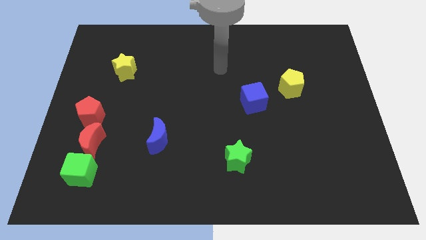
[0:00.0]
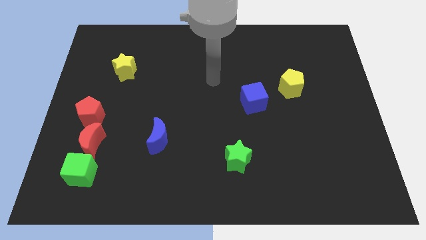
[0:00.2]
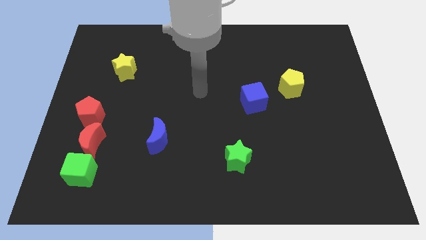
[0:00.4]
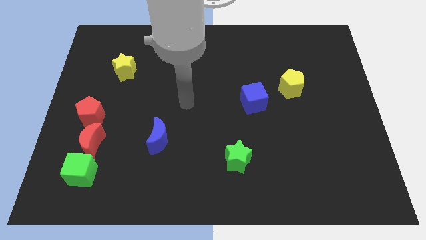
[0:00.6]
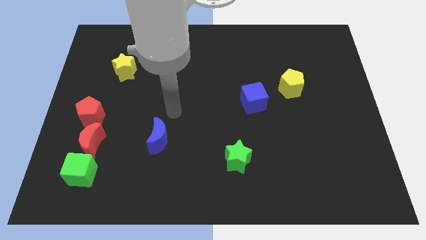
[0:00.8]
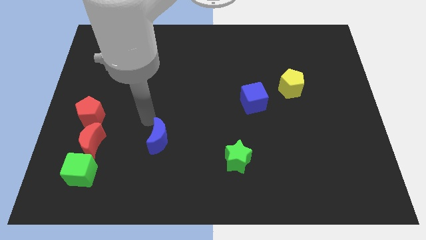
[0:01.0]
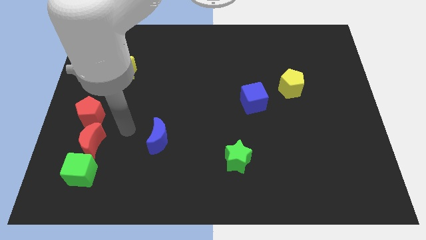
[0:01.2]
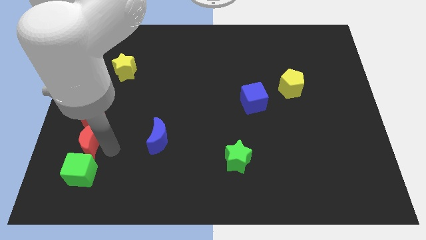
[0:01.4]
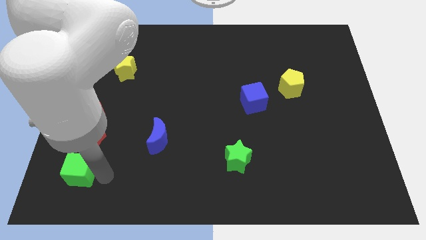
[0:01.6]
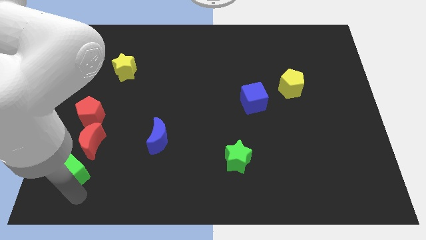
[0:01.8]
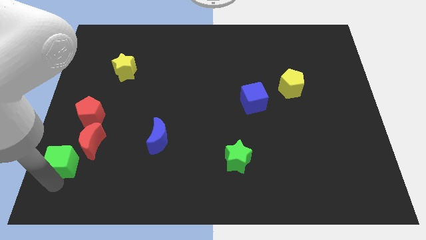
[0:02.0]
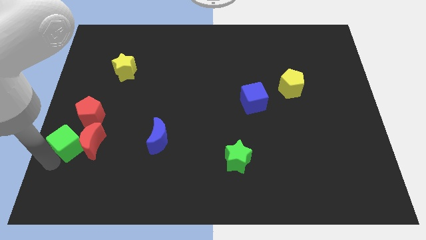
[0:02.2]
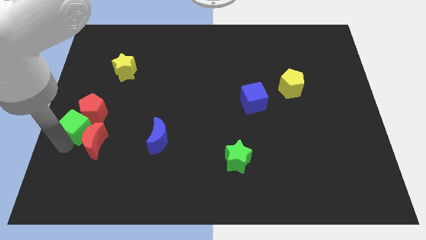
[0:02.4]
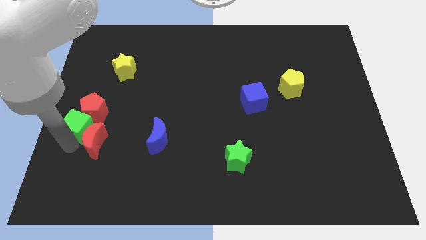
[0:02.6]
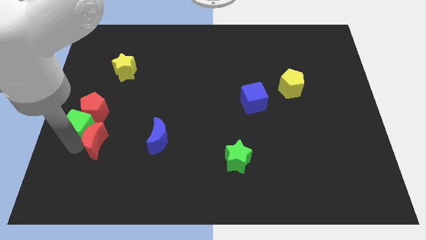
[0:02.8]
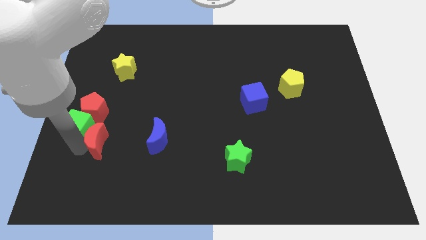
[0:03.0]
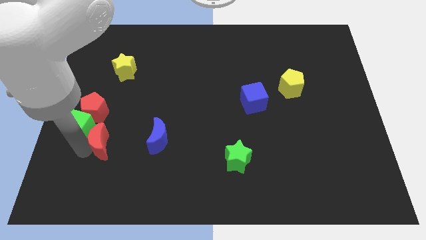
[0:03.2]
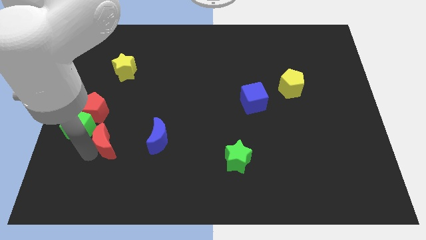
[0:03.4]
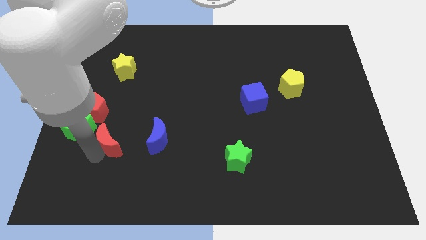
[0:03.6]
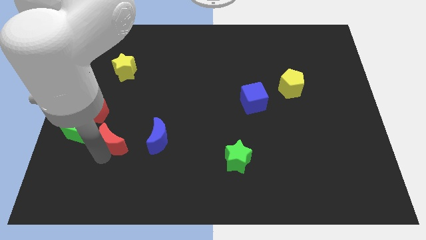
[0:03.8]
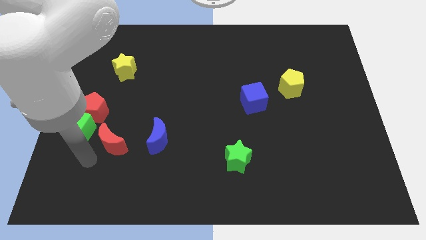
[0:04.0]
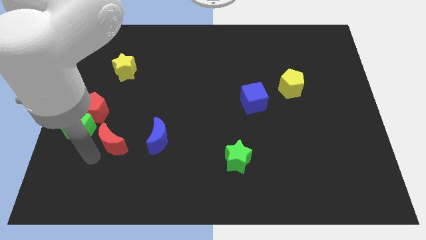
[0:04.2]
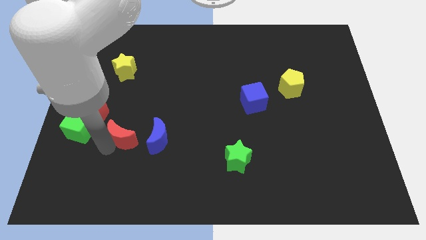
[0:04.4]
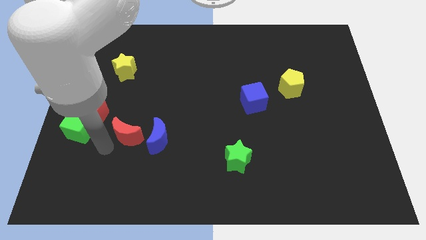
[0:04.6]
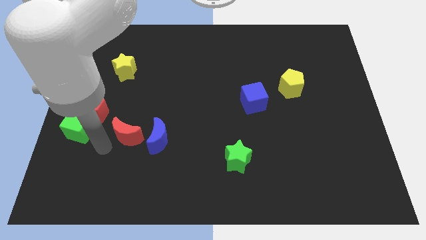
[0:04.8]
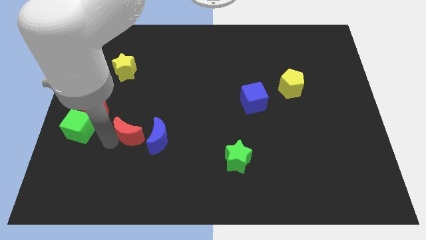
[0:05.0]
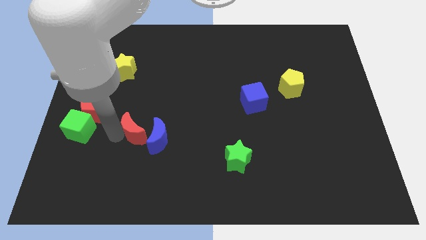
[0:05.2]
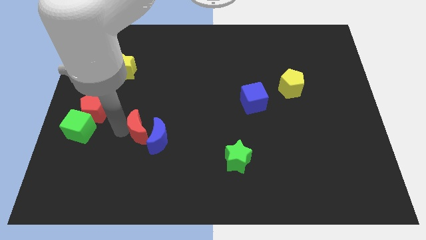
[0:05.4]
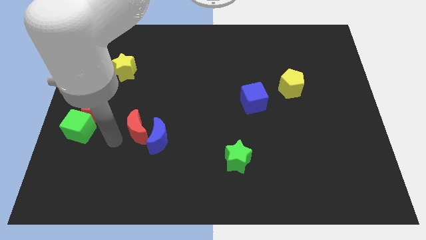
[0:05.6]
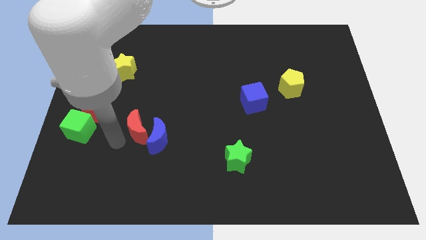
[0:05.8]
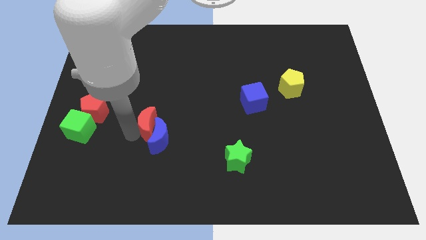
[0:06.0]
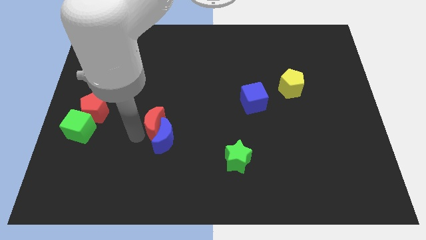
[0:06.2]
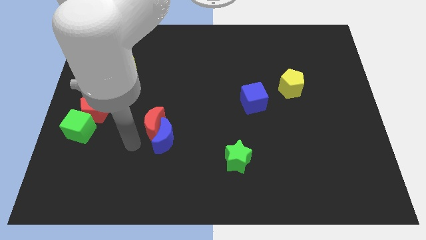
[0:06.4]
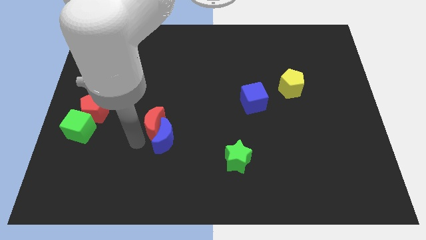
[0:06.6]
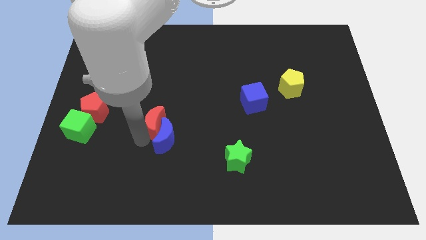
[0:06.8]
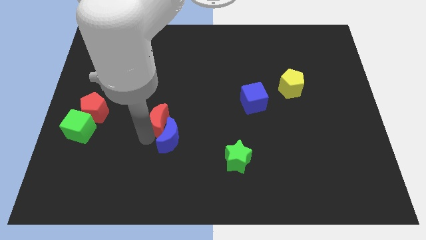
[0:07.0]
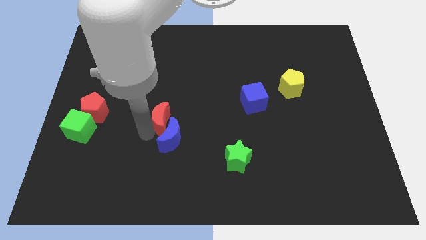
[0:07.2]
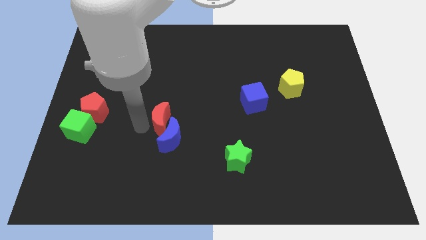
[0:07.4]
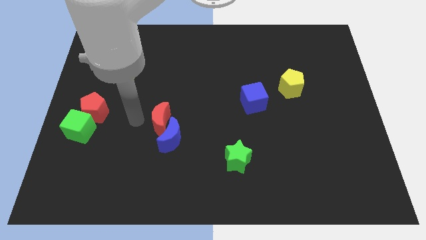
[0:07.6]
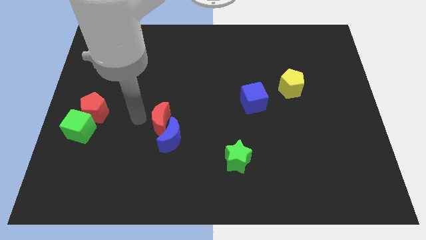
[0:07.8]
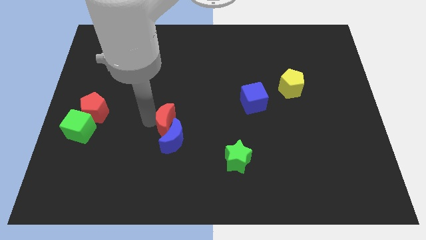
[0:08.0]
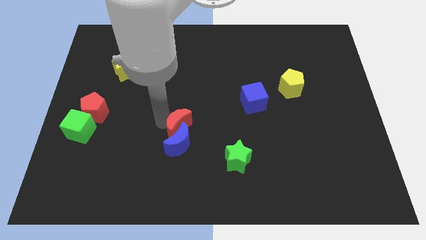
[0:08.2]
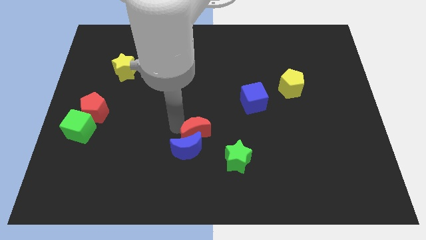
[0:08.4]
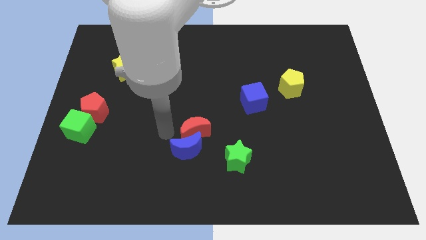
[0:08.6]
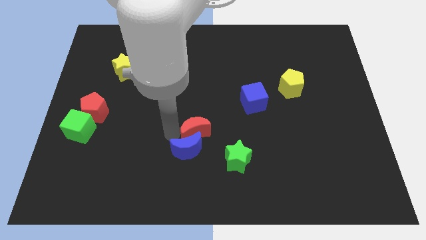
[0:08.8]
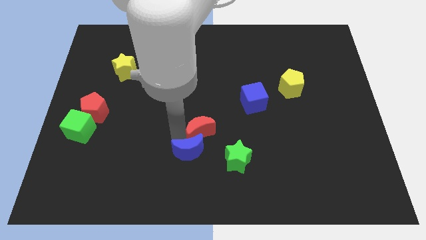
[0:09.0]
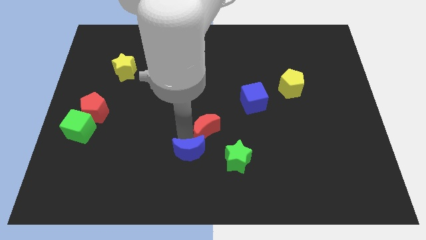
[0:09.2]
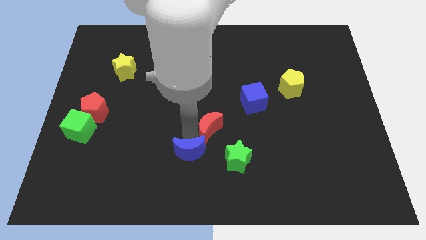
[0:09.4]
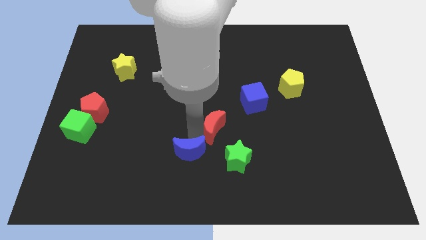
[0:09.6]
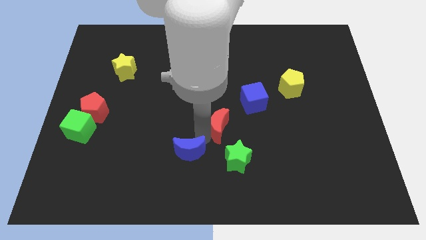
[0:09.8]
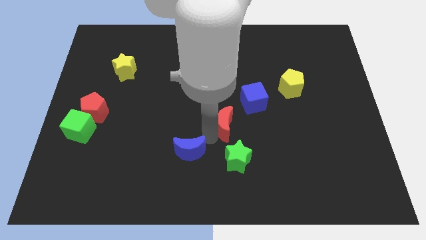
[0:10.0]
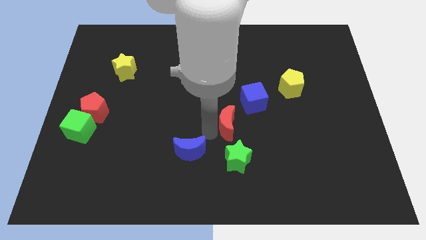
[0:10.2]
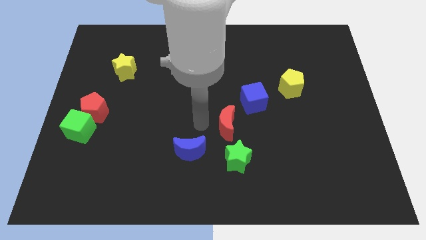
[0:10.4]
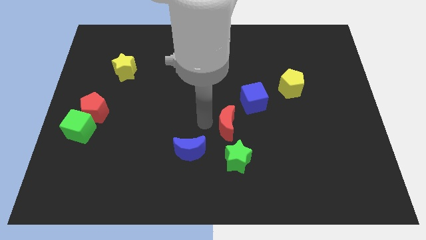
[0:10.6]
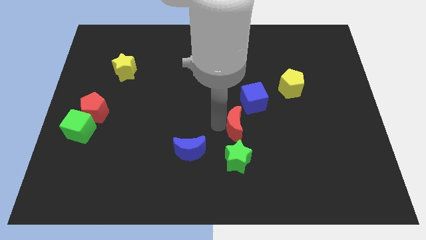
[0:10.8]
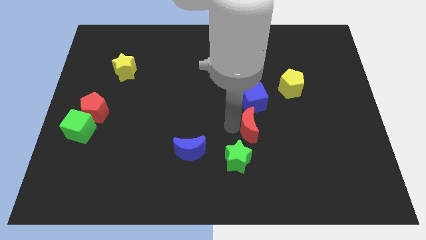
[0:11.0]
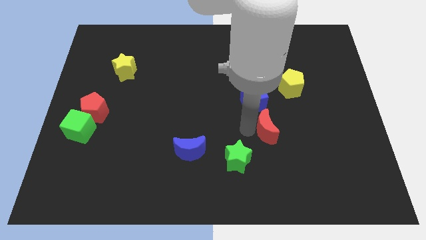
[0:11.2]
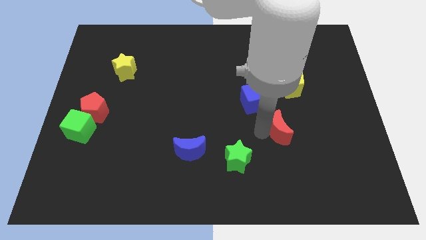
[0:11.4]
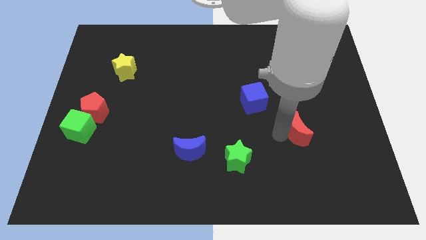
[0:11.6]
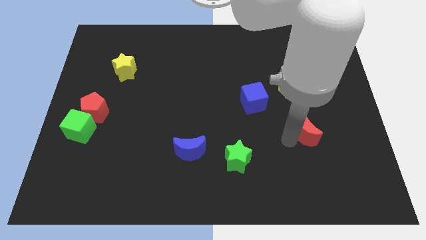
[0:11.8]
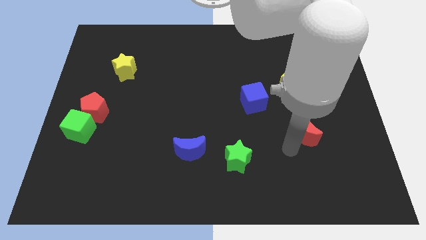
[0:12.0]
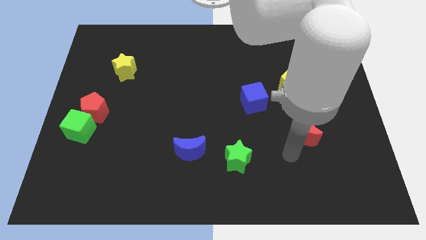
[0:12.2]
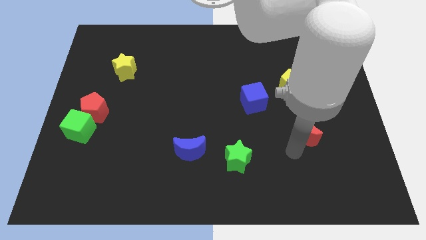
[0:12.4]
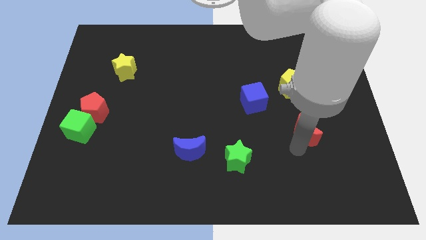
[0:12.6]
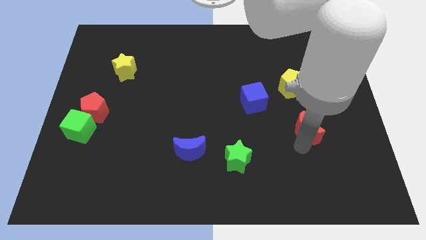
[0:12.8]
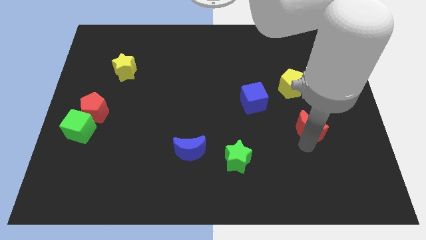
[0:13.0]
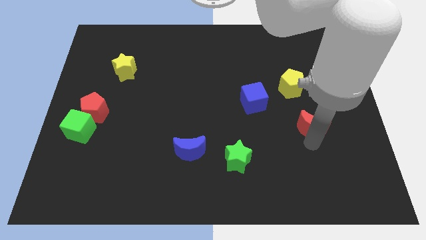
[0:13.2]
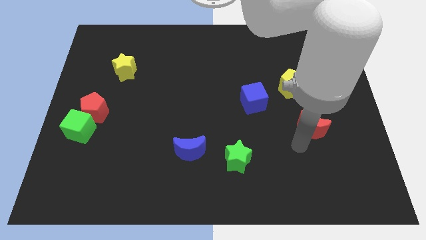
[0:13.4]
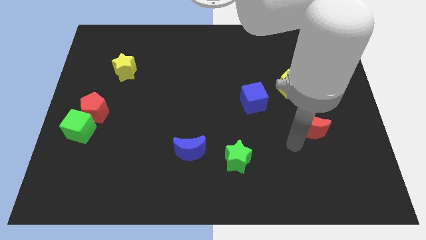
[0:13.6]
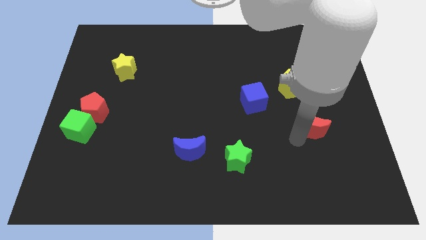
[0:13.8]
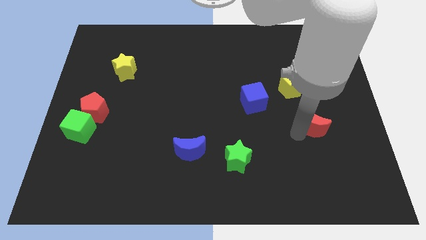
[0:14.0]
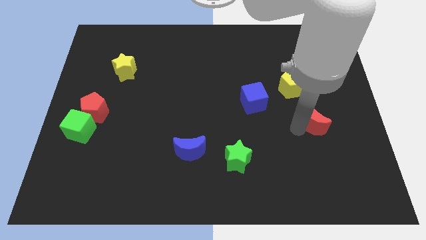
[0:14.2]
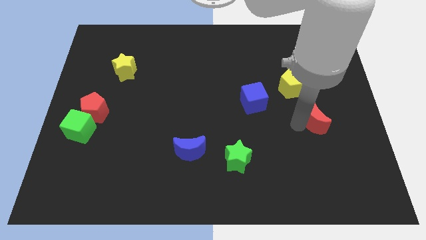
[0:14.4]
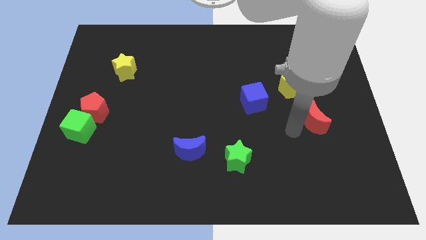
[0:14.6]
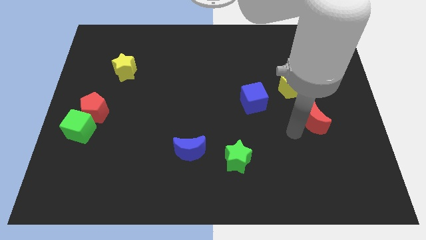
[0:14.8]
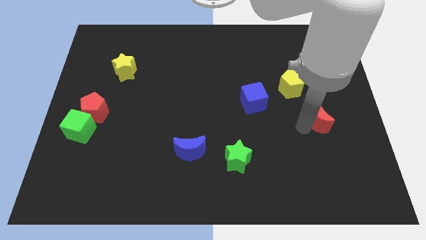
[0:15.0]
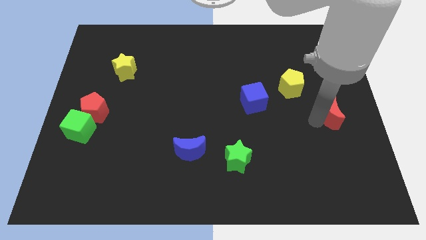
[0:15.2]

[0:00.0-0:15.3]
push the red moon to the right side
